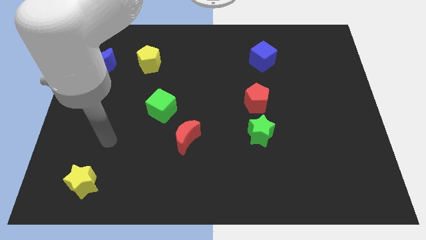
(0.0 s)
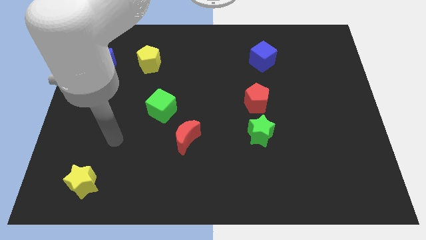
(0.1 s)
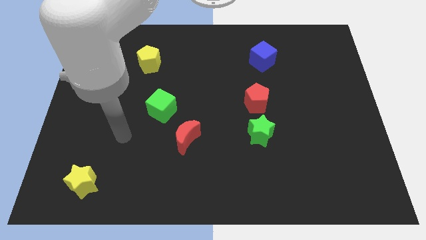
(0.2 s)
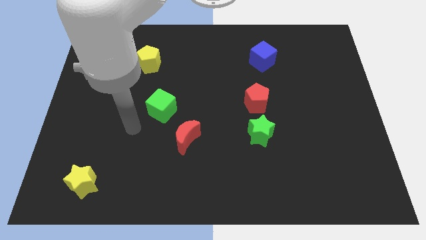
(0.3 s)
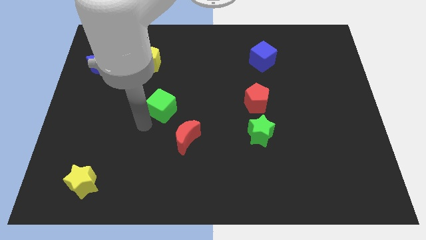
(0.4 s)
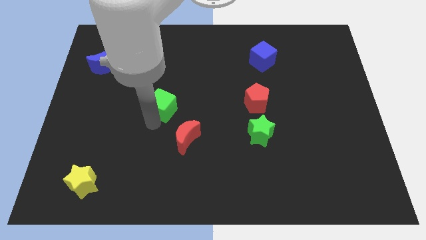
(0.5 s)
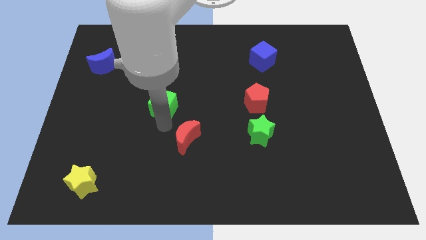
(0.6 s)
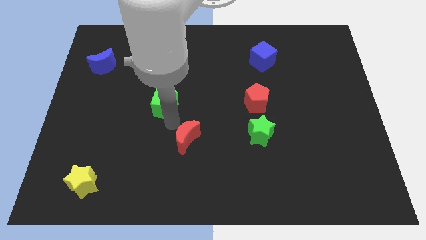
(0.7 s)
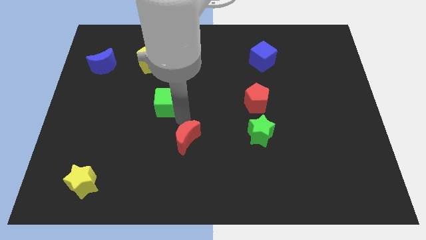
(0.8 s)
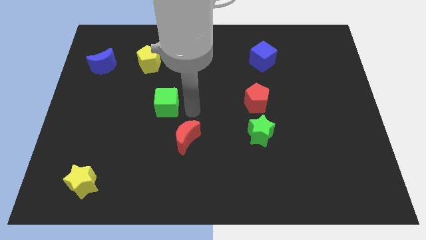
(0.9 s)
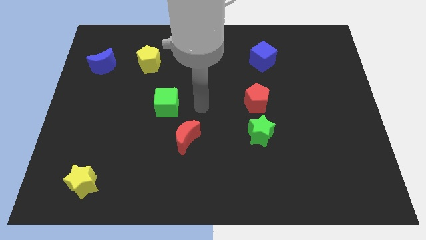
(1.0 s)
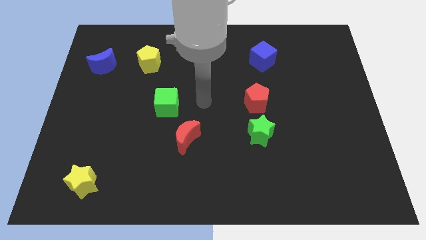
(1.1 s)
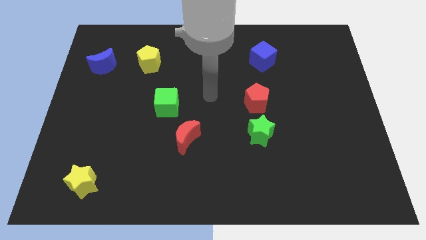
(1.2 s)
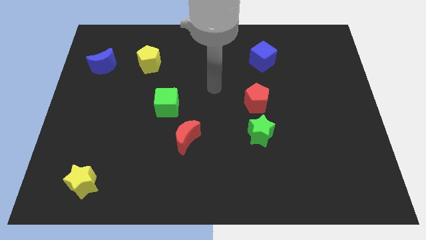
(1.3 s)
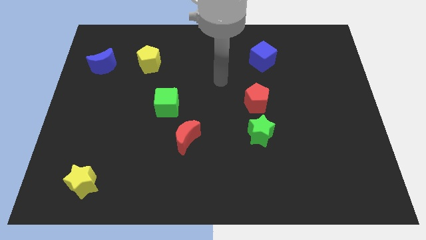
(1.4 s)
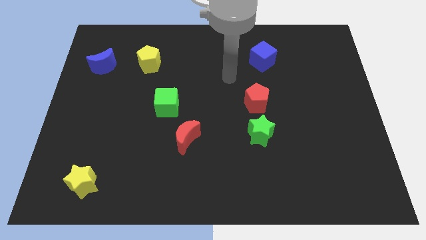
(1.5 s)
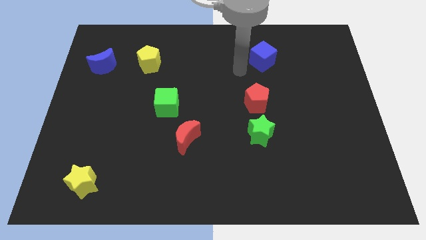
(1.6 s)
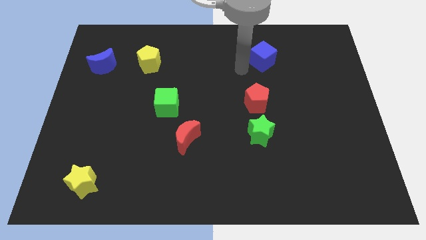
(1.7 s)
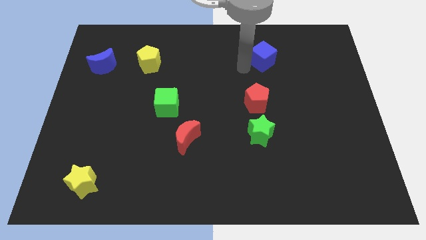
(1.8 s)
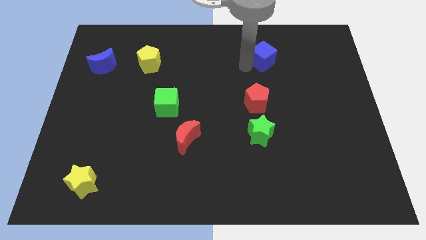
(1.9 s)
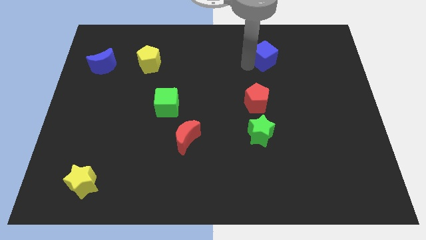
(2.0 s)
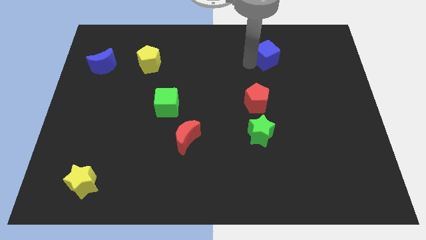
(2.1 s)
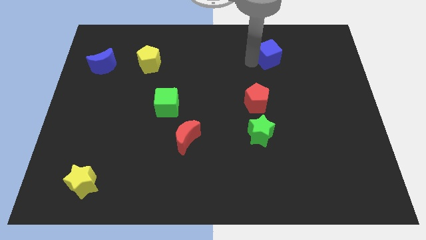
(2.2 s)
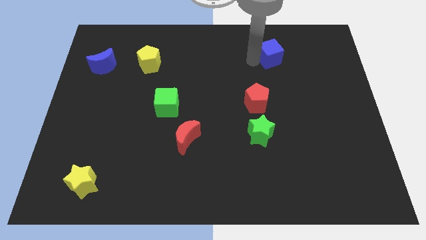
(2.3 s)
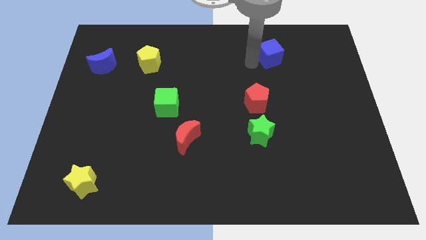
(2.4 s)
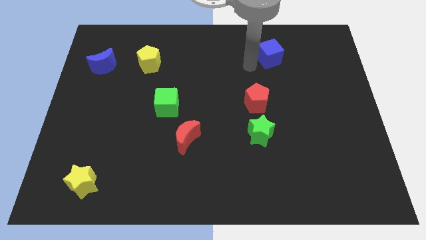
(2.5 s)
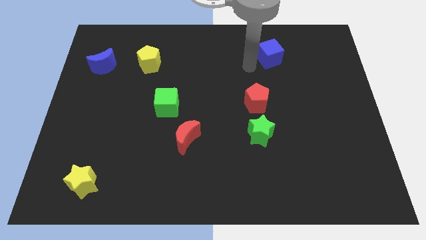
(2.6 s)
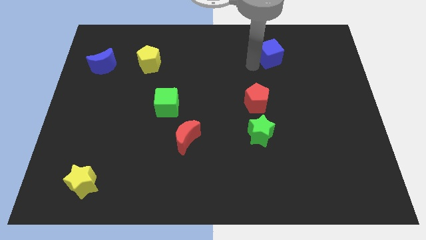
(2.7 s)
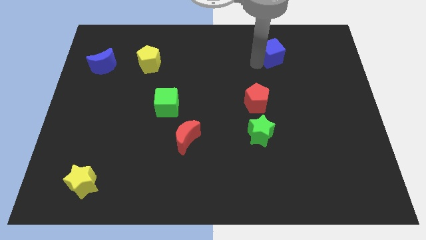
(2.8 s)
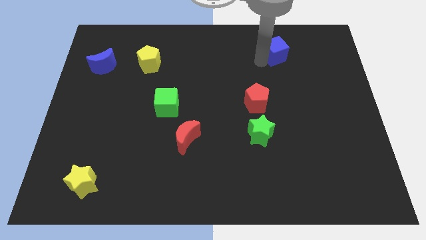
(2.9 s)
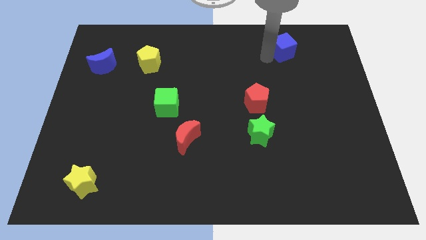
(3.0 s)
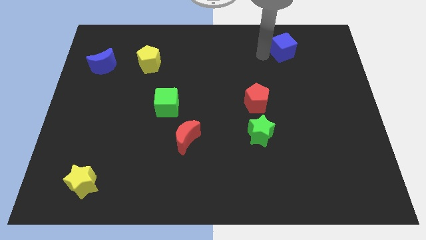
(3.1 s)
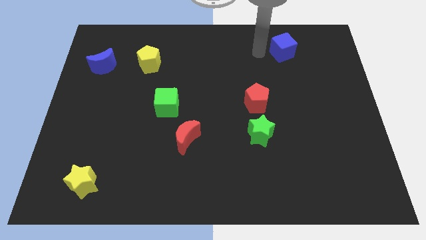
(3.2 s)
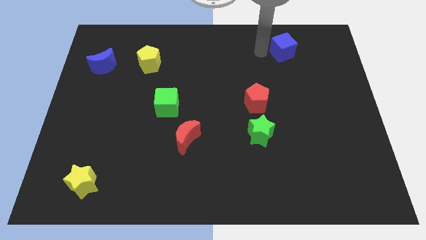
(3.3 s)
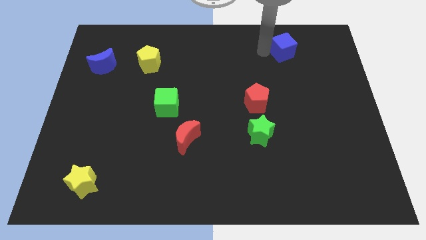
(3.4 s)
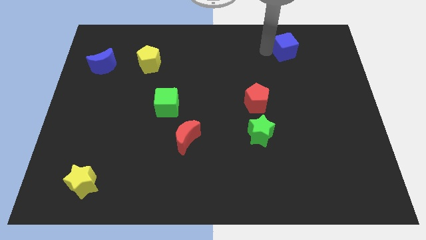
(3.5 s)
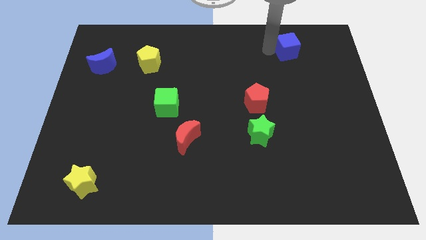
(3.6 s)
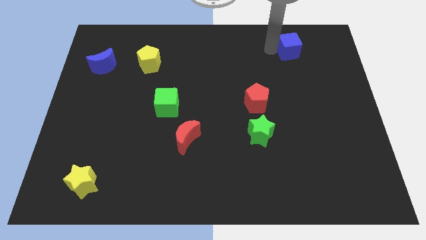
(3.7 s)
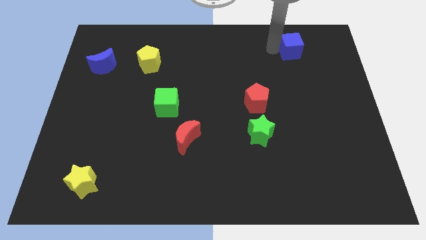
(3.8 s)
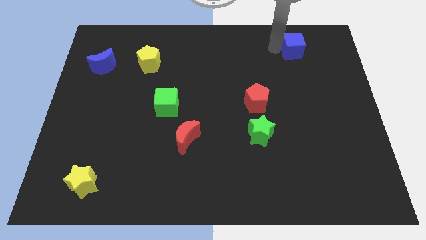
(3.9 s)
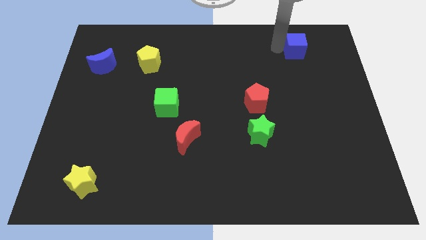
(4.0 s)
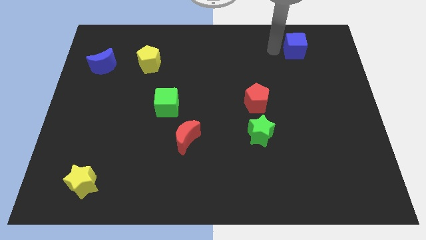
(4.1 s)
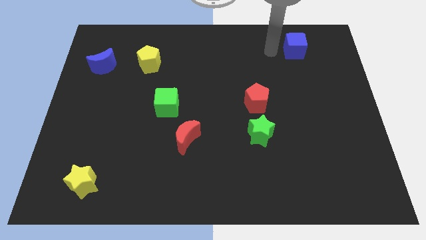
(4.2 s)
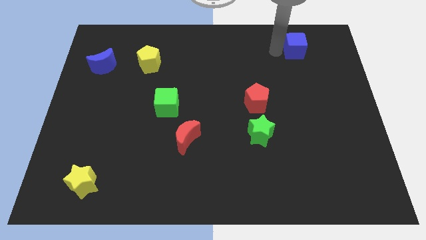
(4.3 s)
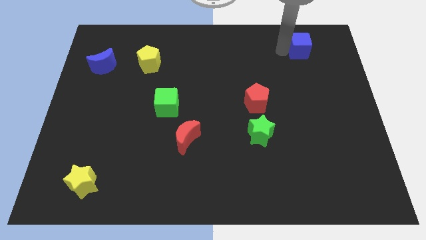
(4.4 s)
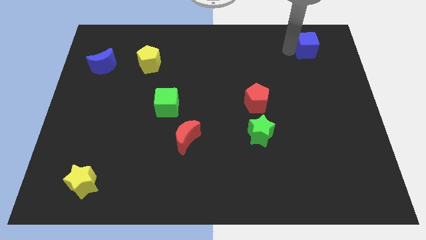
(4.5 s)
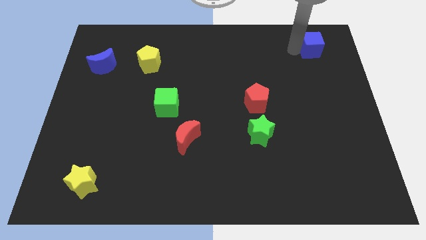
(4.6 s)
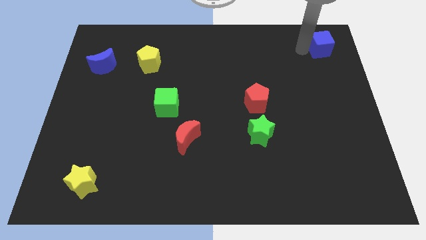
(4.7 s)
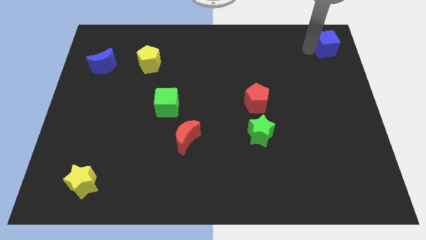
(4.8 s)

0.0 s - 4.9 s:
slide the blue cube to the upper right corner

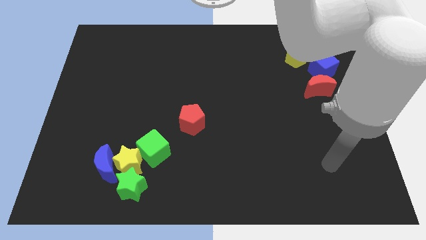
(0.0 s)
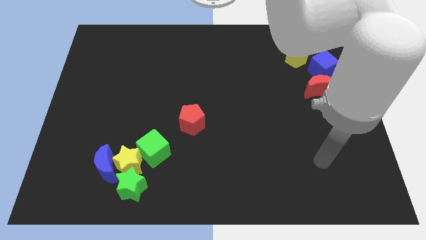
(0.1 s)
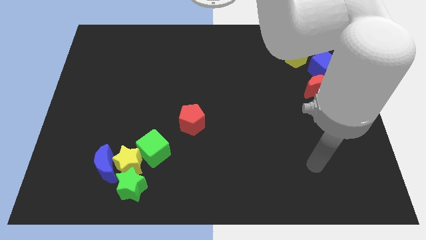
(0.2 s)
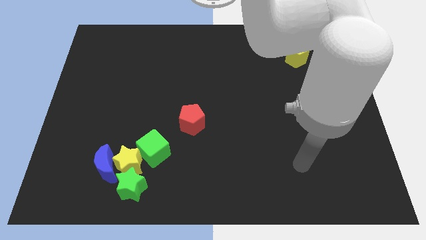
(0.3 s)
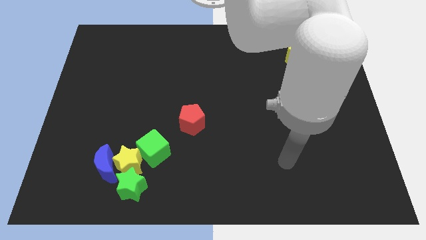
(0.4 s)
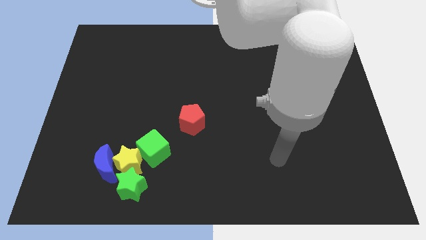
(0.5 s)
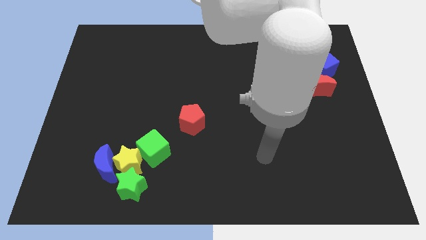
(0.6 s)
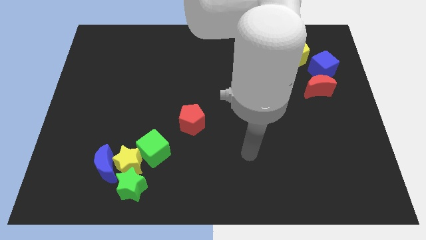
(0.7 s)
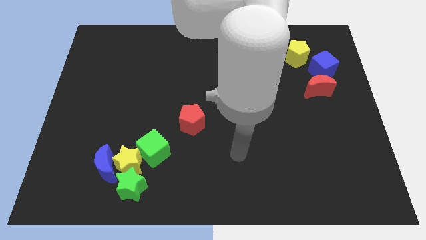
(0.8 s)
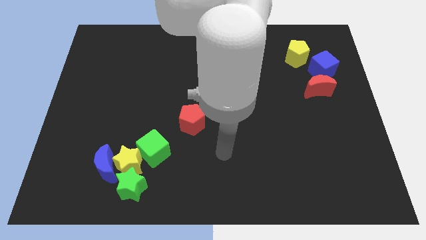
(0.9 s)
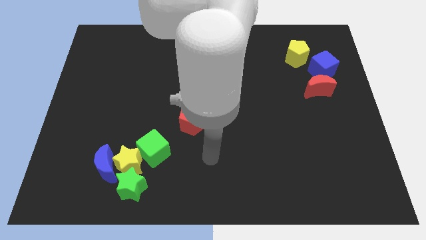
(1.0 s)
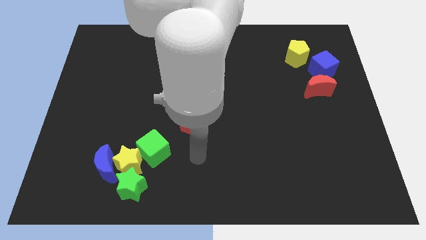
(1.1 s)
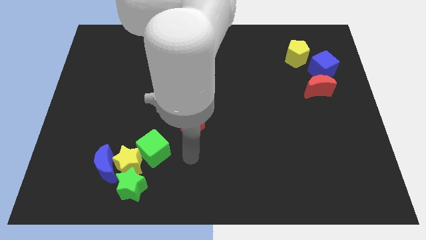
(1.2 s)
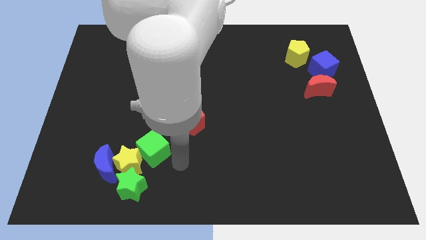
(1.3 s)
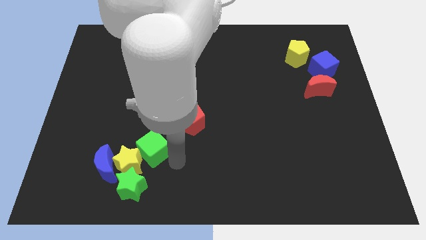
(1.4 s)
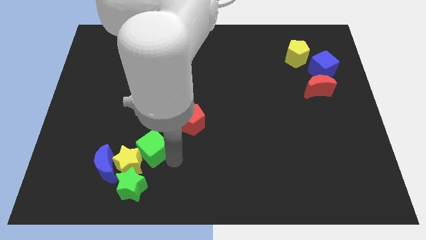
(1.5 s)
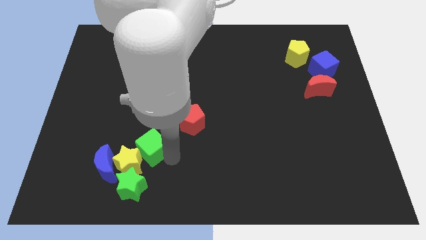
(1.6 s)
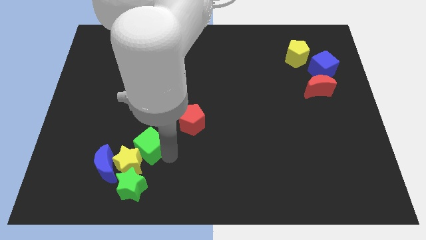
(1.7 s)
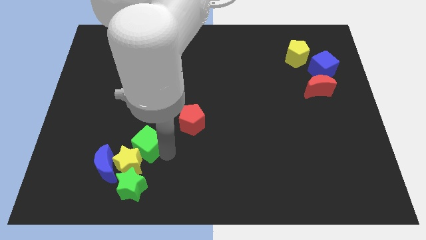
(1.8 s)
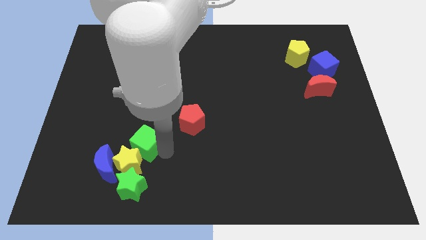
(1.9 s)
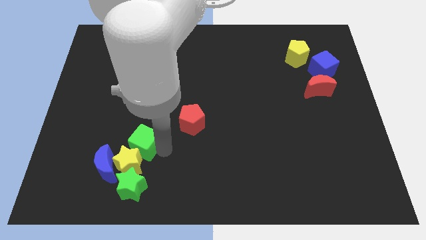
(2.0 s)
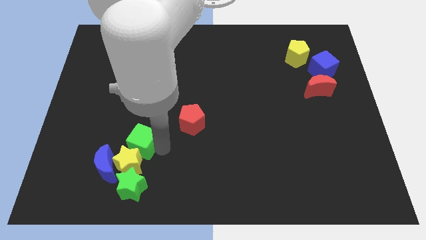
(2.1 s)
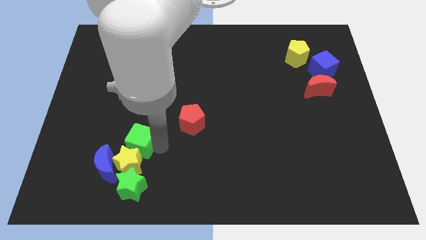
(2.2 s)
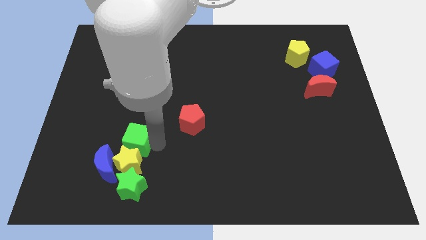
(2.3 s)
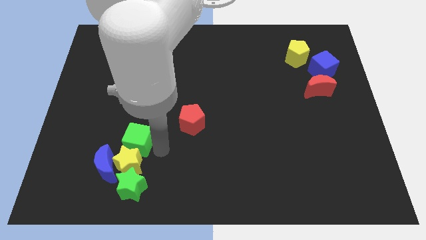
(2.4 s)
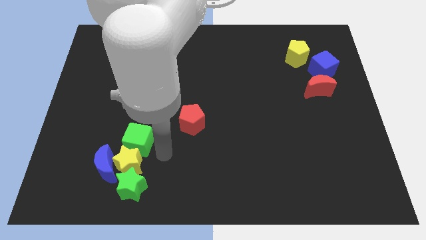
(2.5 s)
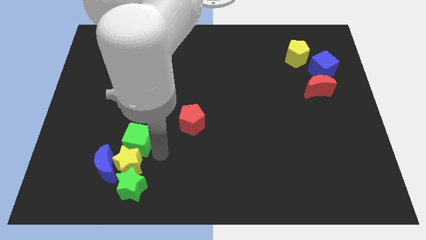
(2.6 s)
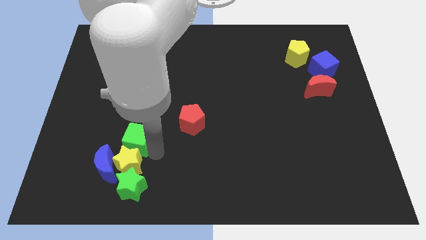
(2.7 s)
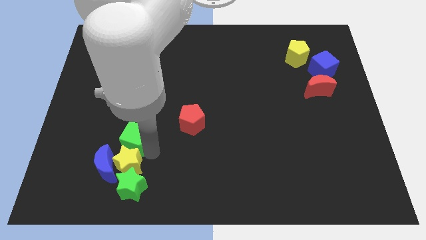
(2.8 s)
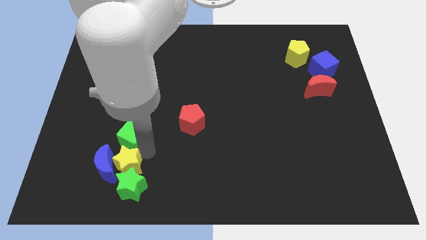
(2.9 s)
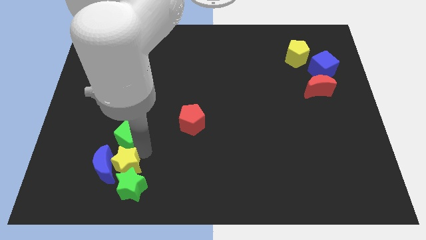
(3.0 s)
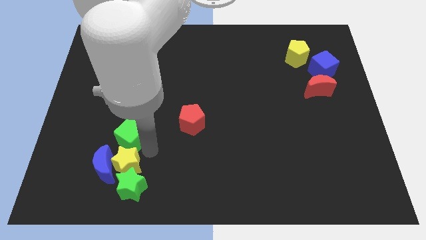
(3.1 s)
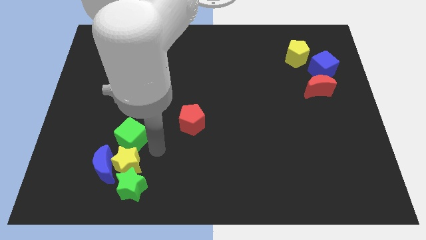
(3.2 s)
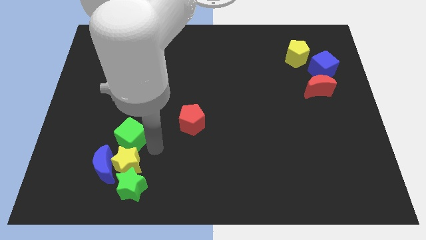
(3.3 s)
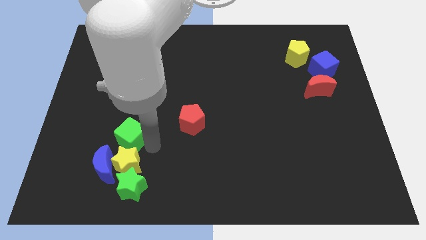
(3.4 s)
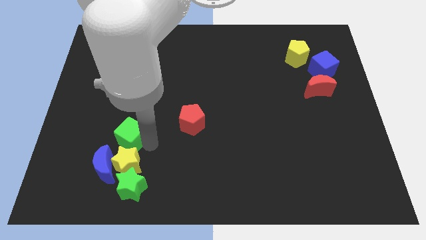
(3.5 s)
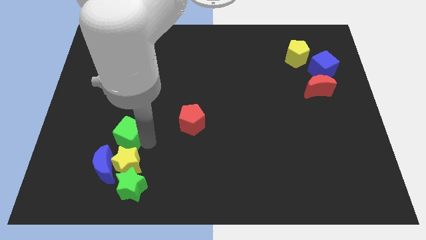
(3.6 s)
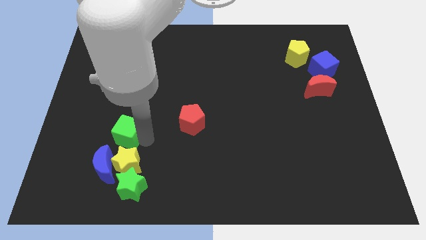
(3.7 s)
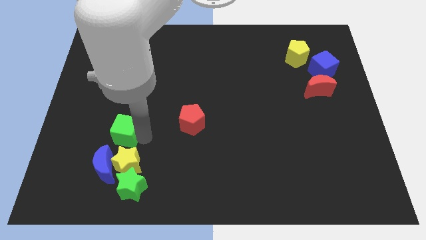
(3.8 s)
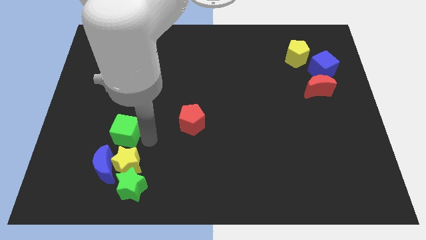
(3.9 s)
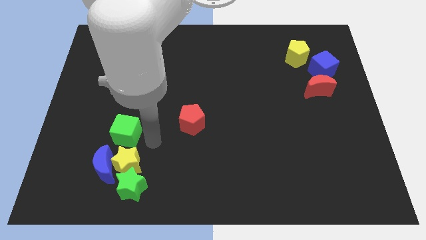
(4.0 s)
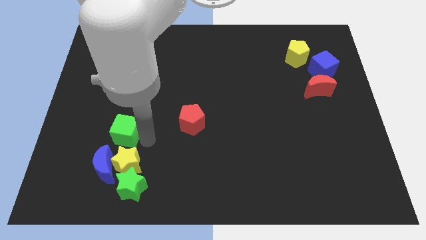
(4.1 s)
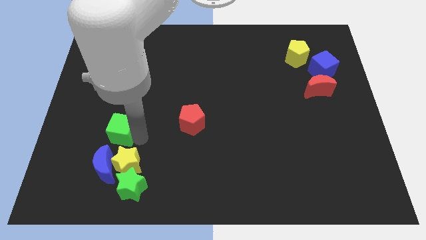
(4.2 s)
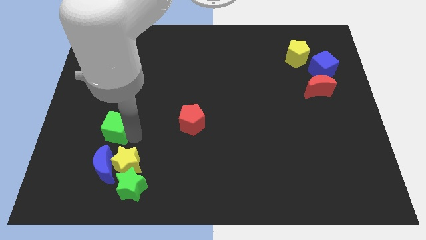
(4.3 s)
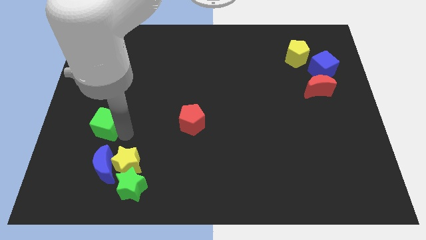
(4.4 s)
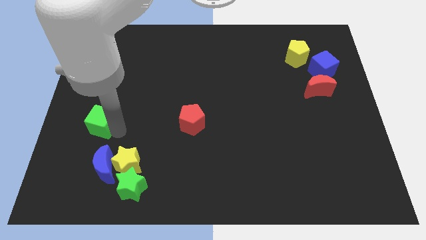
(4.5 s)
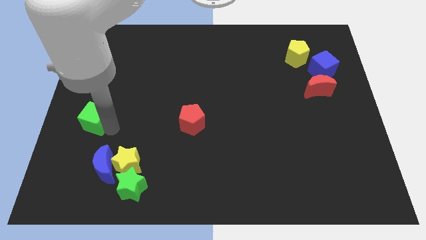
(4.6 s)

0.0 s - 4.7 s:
put the green cube to the left side
